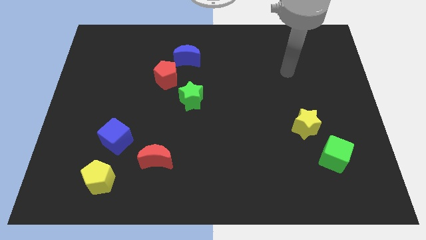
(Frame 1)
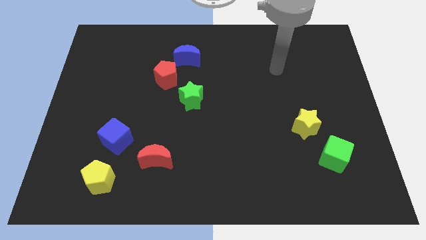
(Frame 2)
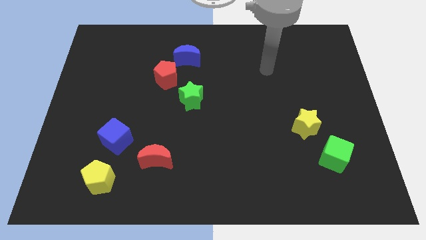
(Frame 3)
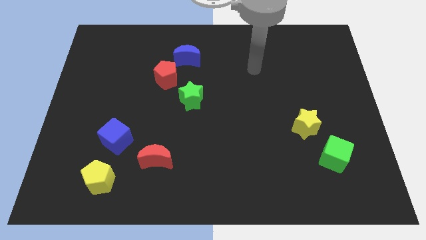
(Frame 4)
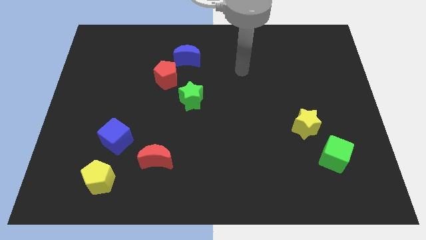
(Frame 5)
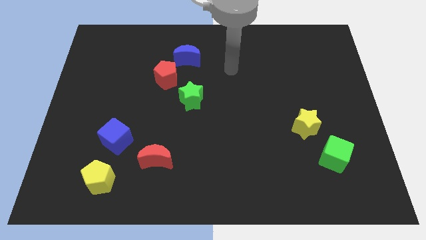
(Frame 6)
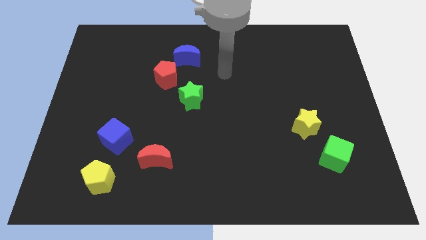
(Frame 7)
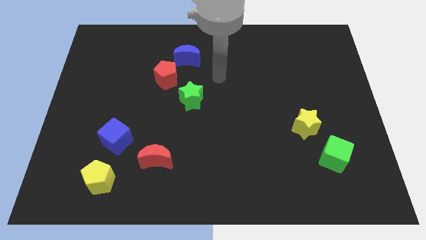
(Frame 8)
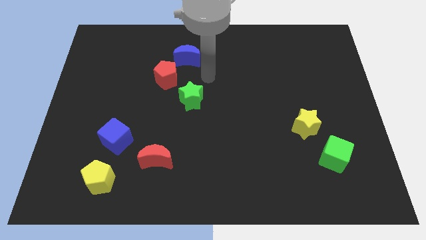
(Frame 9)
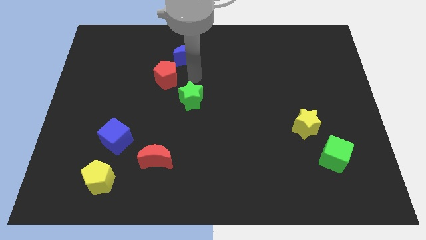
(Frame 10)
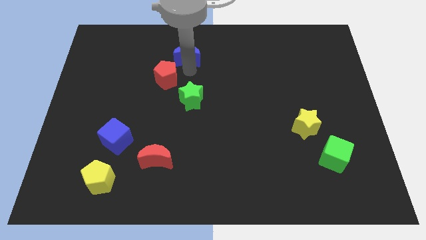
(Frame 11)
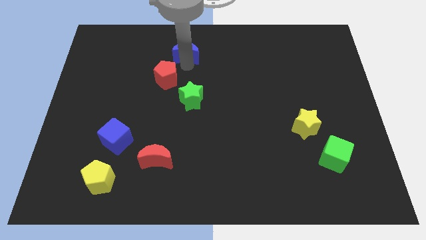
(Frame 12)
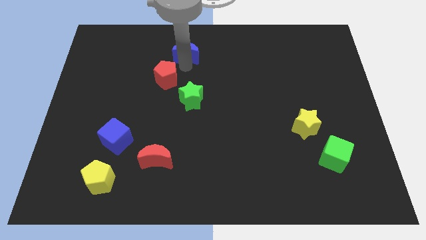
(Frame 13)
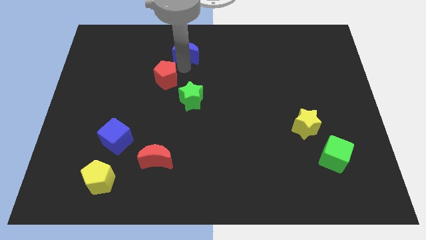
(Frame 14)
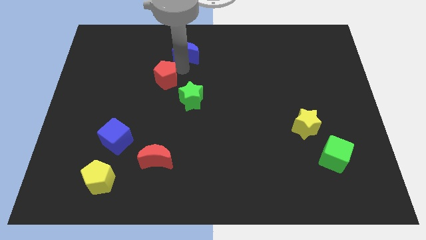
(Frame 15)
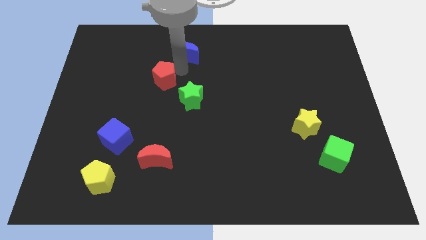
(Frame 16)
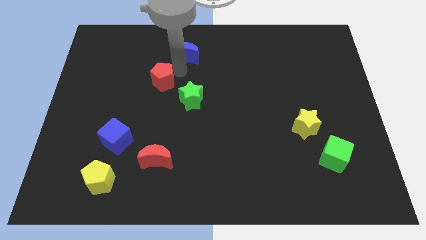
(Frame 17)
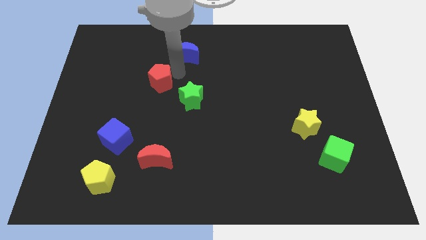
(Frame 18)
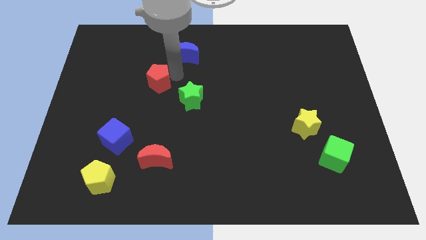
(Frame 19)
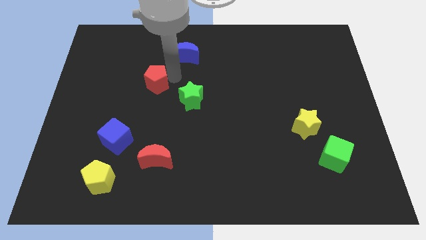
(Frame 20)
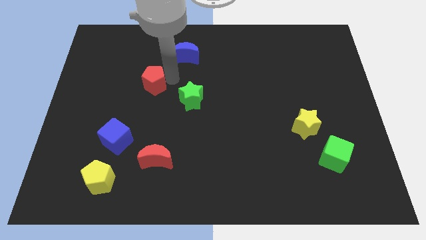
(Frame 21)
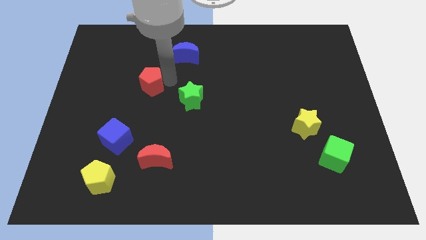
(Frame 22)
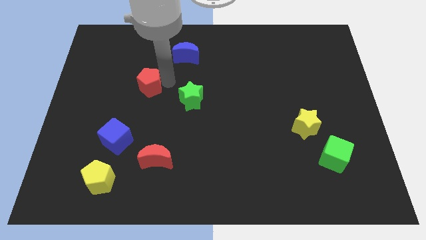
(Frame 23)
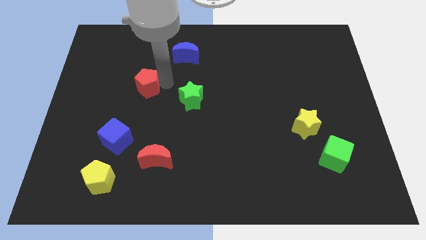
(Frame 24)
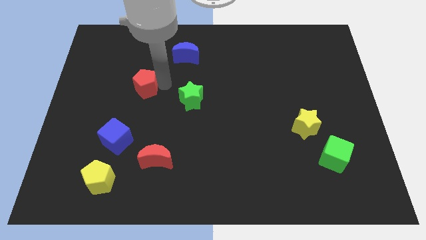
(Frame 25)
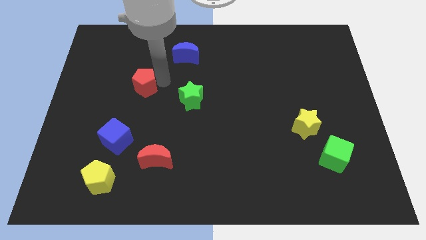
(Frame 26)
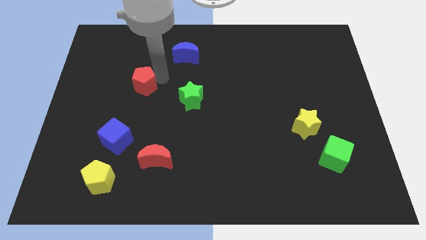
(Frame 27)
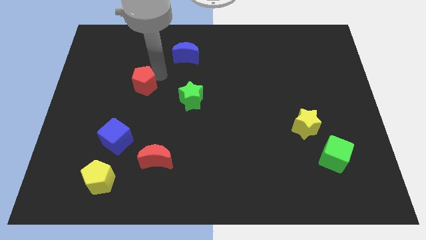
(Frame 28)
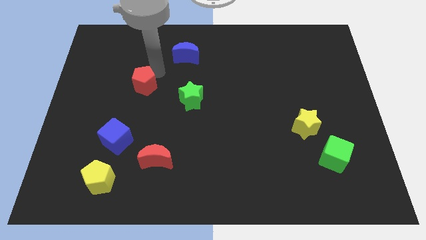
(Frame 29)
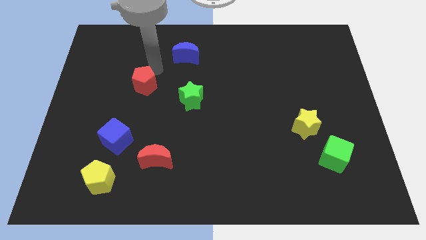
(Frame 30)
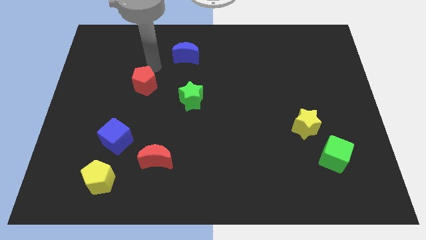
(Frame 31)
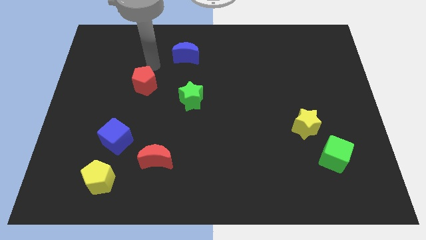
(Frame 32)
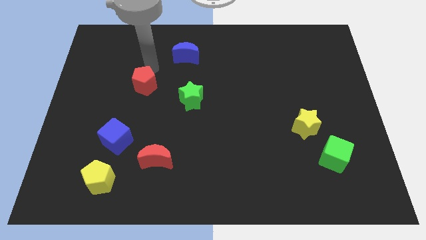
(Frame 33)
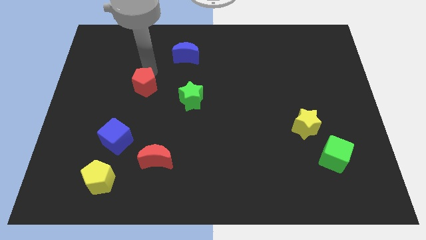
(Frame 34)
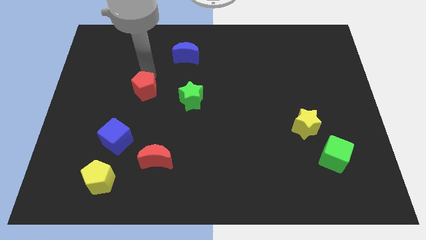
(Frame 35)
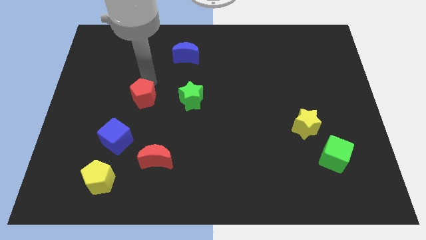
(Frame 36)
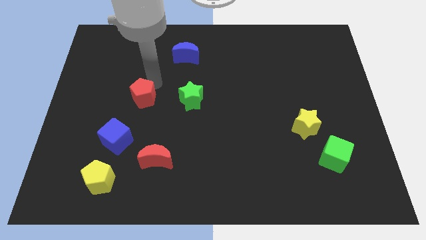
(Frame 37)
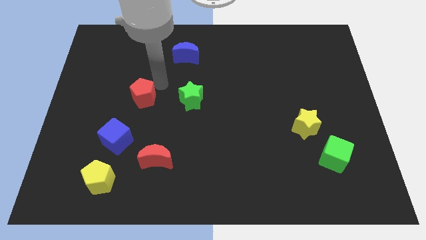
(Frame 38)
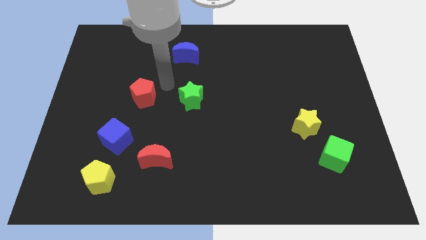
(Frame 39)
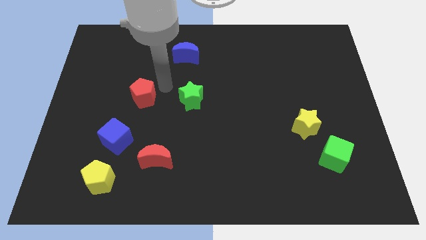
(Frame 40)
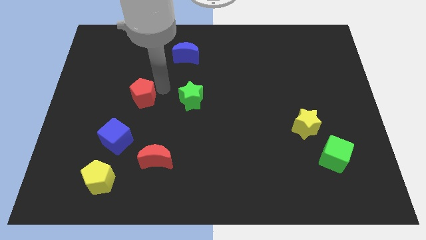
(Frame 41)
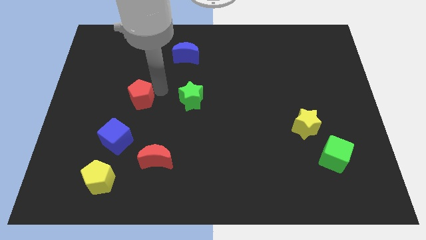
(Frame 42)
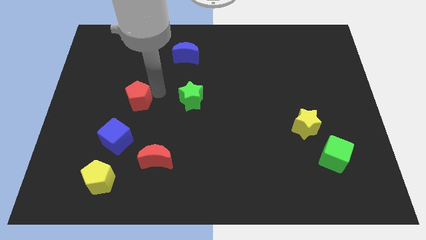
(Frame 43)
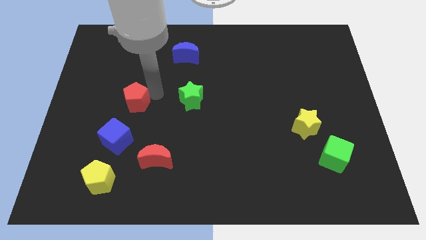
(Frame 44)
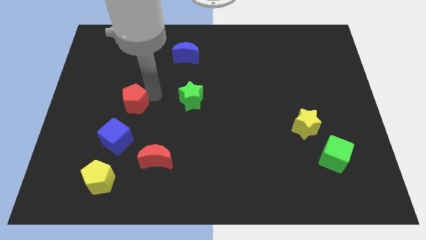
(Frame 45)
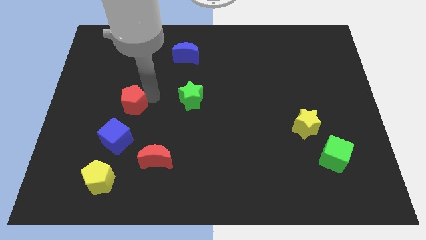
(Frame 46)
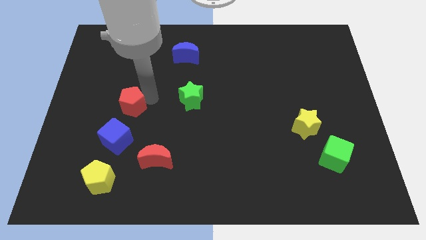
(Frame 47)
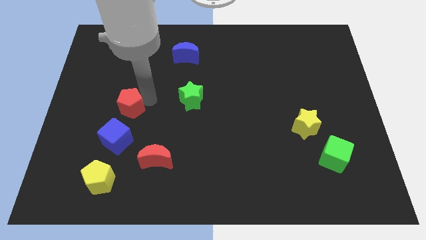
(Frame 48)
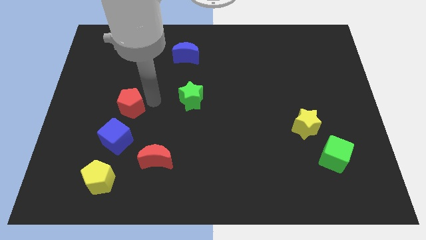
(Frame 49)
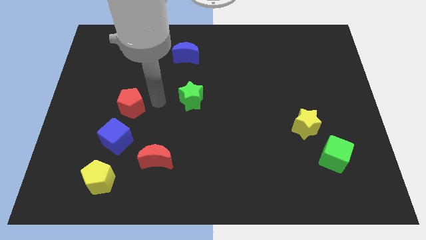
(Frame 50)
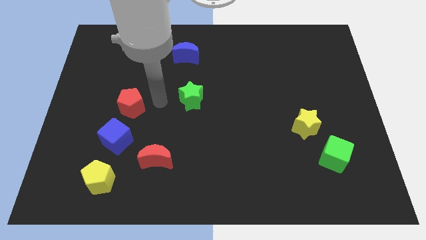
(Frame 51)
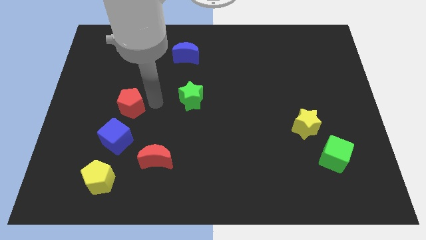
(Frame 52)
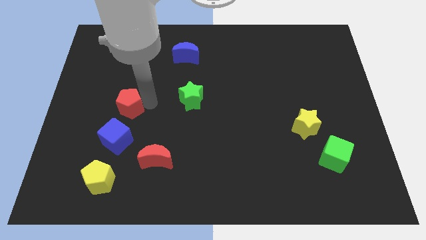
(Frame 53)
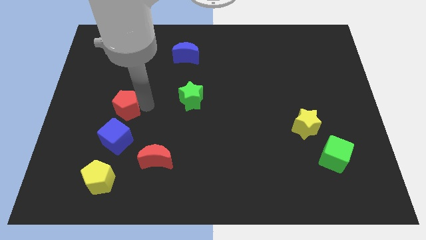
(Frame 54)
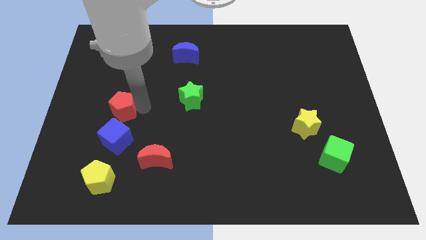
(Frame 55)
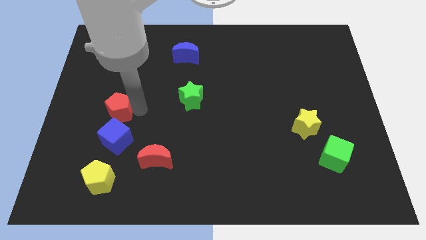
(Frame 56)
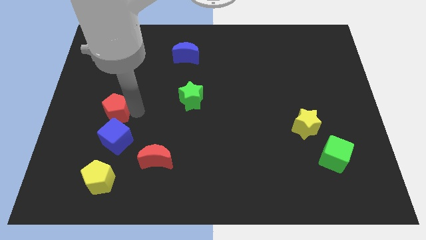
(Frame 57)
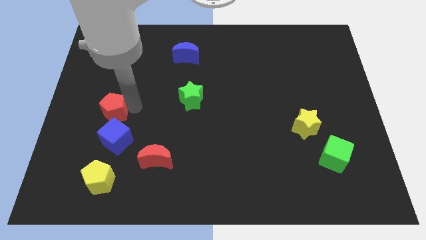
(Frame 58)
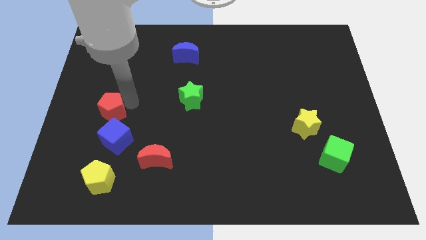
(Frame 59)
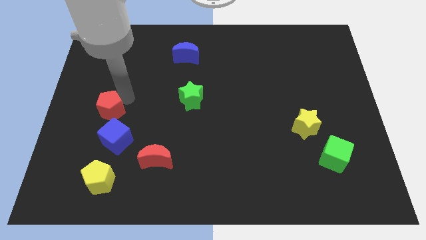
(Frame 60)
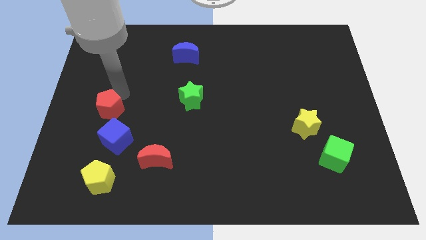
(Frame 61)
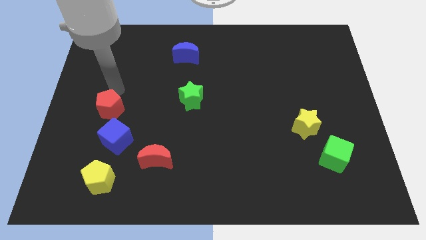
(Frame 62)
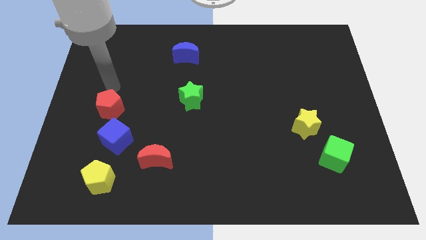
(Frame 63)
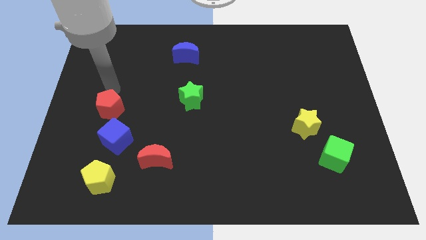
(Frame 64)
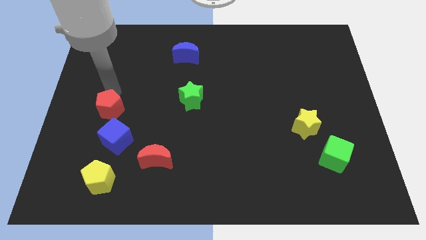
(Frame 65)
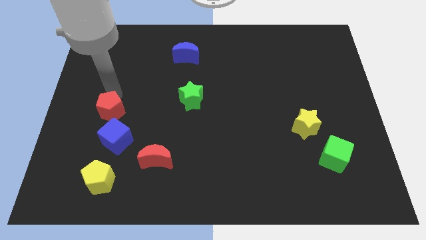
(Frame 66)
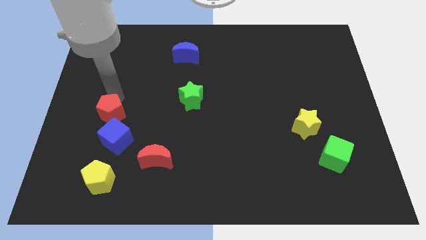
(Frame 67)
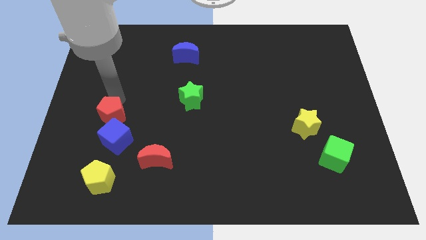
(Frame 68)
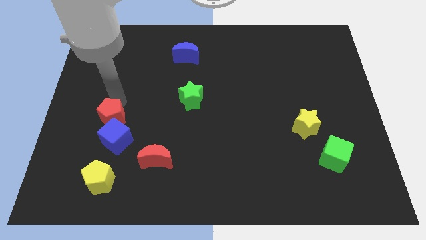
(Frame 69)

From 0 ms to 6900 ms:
slide the red pentagon to the top side of the yellow pentagon
